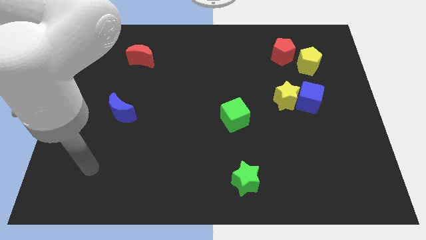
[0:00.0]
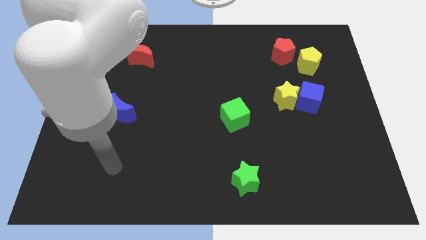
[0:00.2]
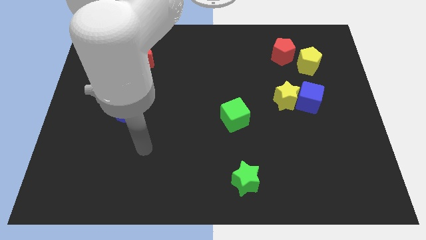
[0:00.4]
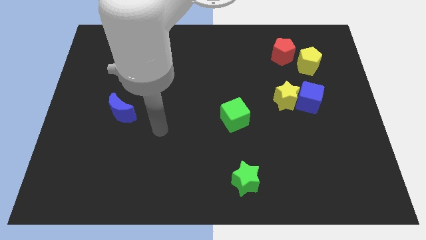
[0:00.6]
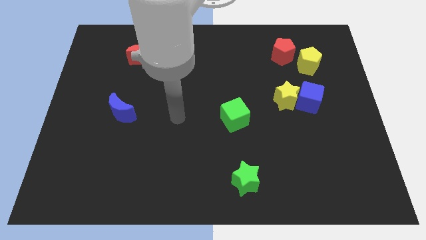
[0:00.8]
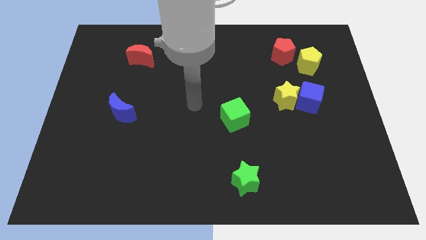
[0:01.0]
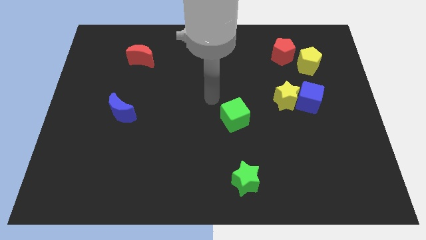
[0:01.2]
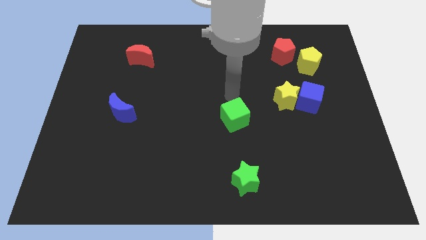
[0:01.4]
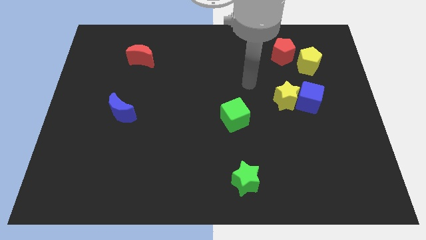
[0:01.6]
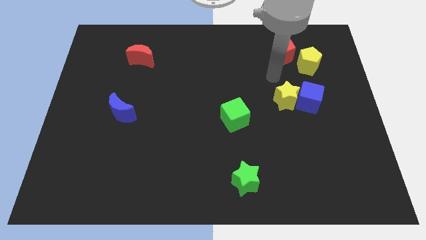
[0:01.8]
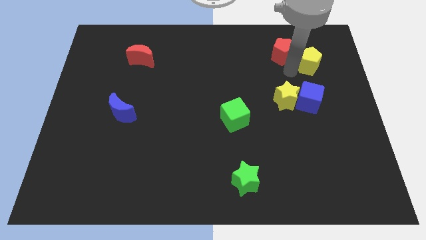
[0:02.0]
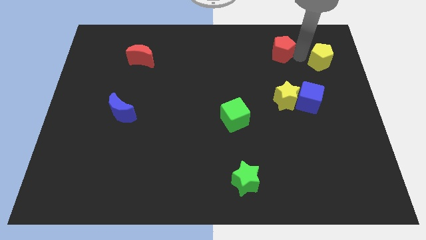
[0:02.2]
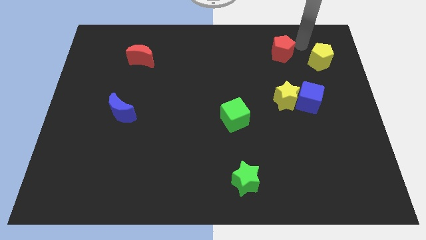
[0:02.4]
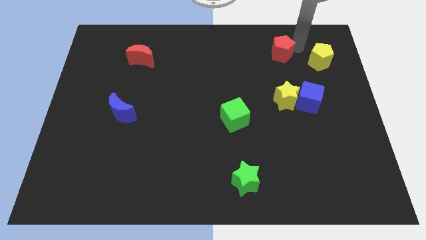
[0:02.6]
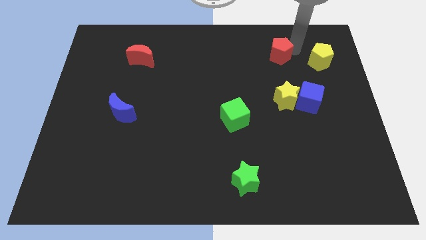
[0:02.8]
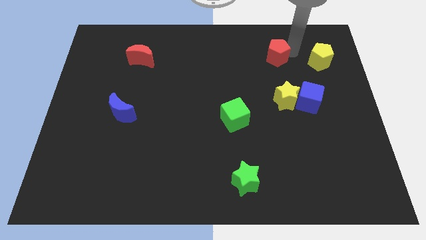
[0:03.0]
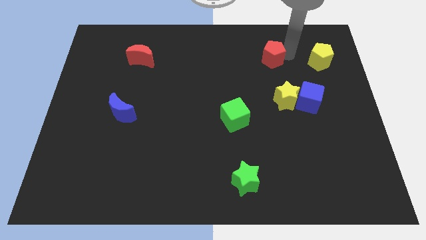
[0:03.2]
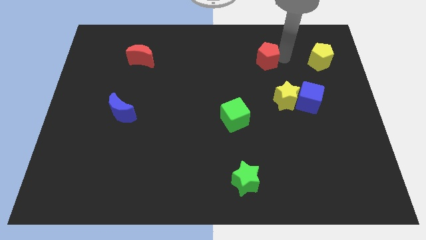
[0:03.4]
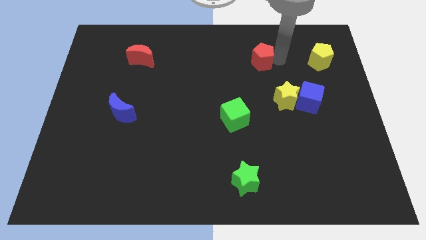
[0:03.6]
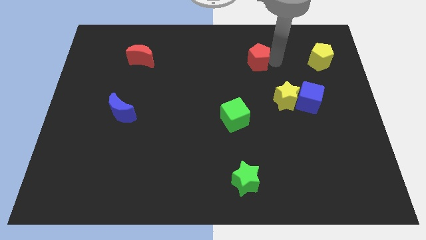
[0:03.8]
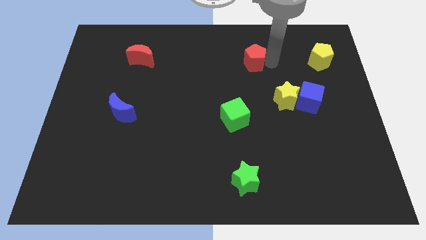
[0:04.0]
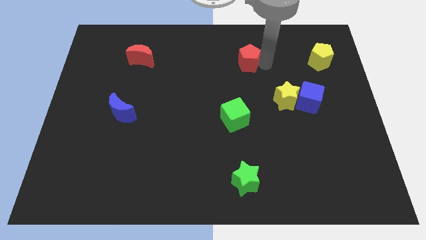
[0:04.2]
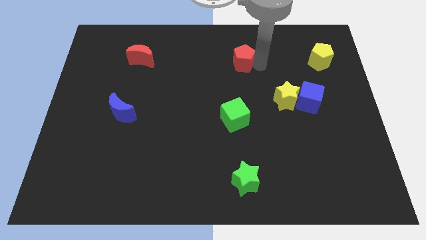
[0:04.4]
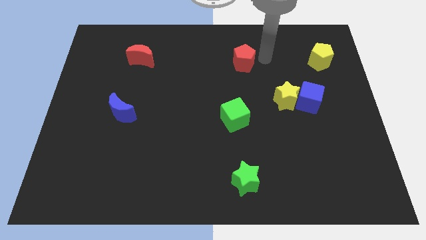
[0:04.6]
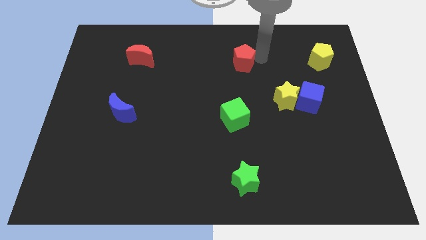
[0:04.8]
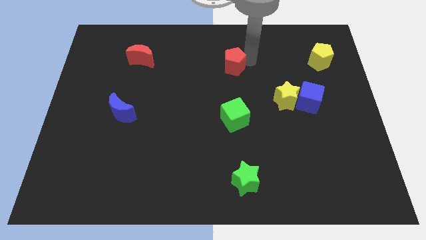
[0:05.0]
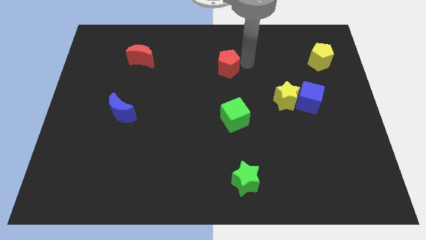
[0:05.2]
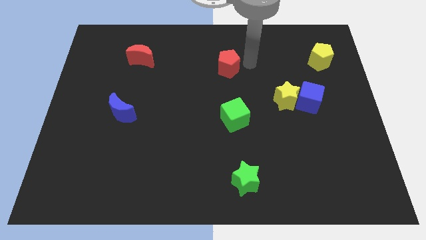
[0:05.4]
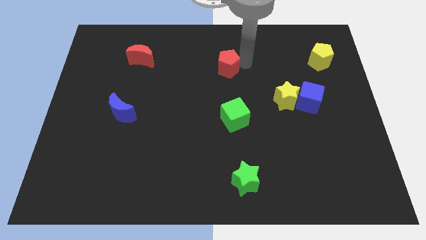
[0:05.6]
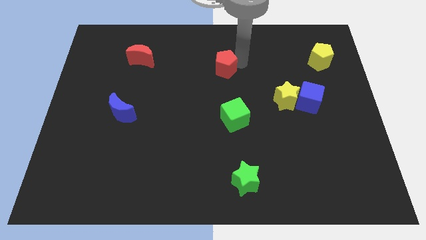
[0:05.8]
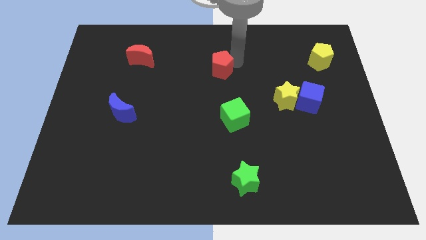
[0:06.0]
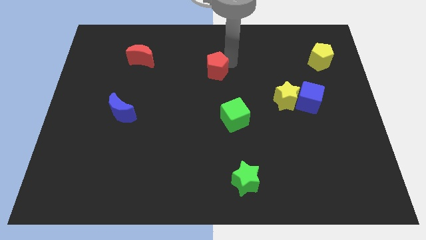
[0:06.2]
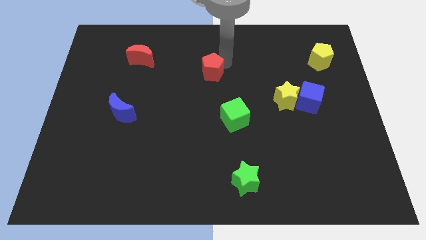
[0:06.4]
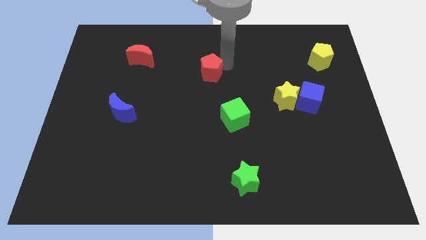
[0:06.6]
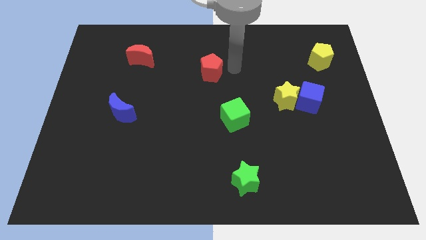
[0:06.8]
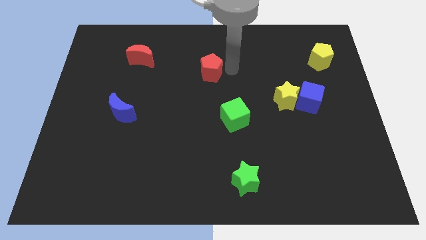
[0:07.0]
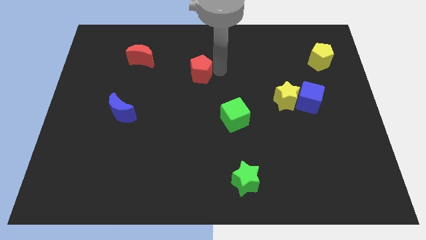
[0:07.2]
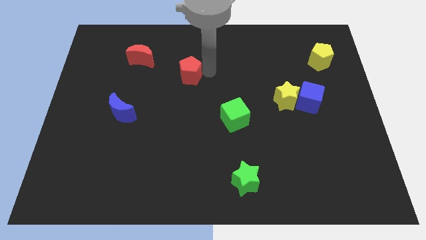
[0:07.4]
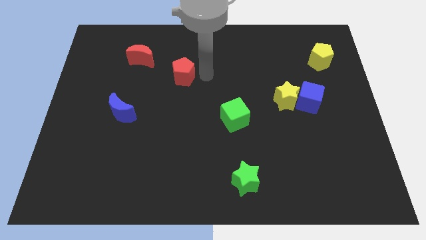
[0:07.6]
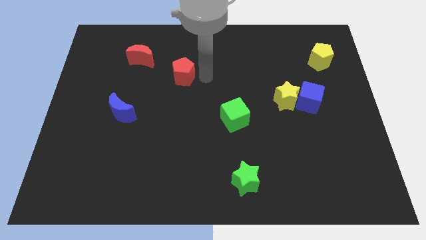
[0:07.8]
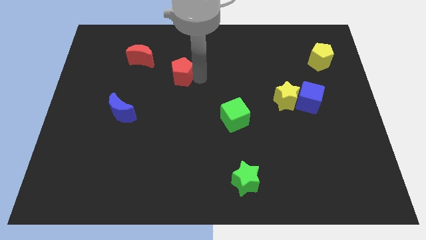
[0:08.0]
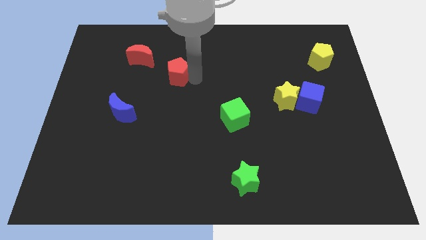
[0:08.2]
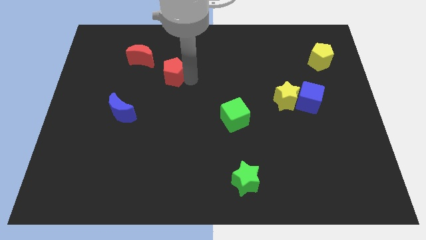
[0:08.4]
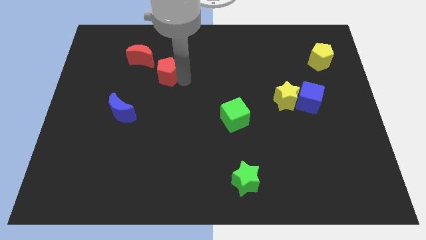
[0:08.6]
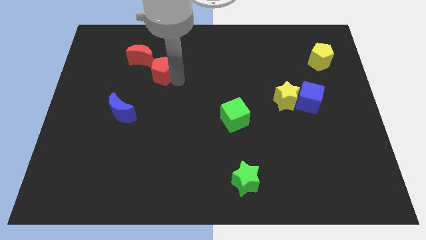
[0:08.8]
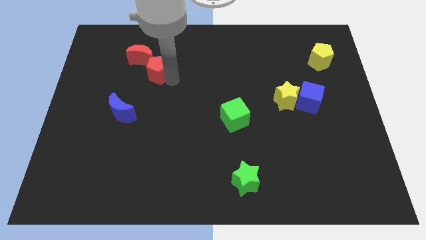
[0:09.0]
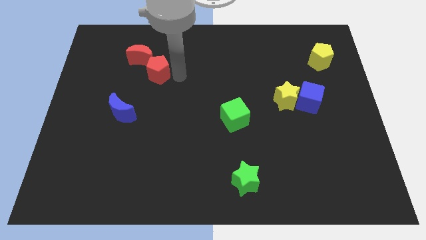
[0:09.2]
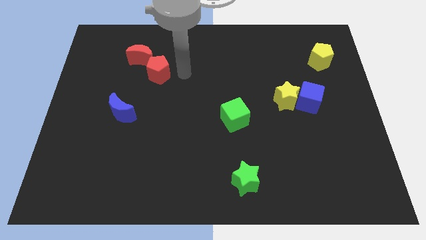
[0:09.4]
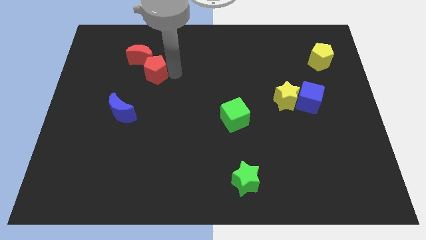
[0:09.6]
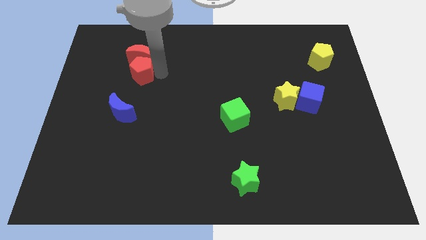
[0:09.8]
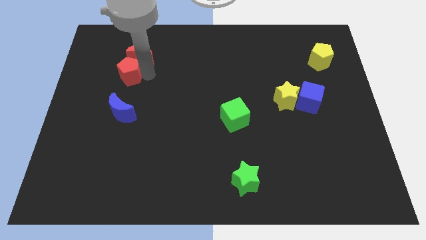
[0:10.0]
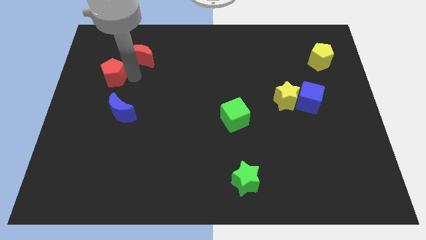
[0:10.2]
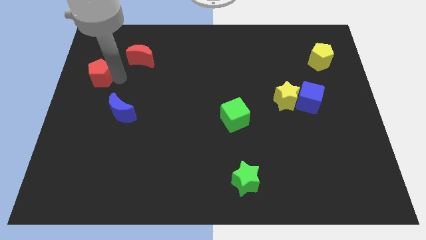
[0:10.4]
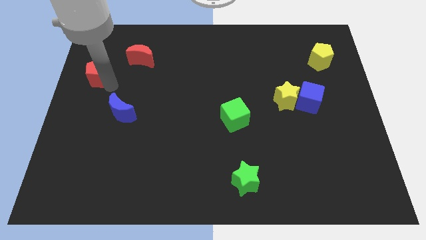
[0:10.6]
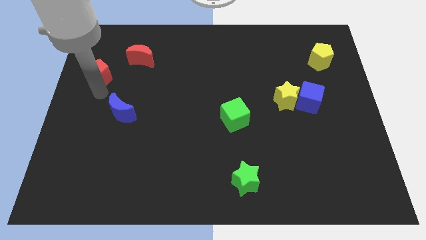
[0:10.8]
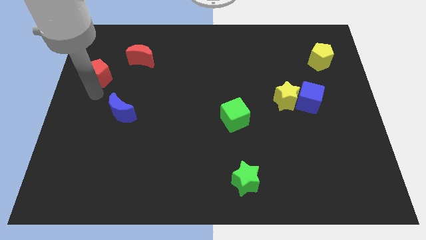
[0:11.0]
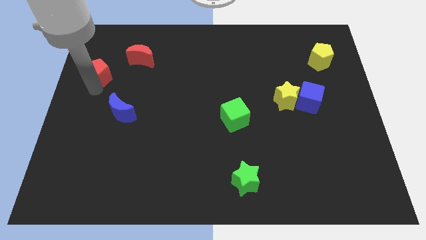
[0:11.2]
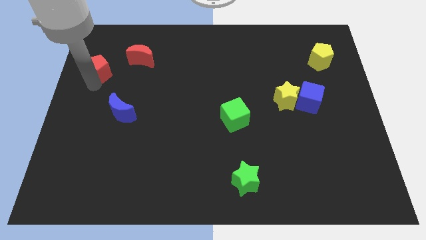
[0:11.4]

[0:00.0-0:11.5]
slide the red pentagon to the left of the red moon
